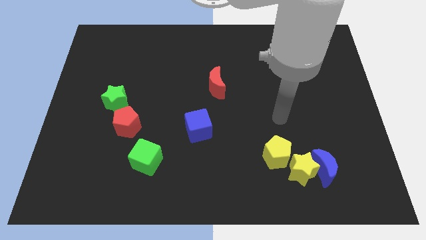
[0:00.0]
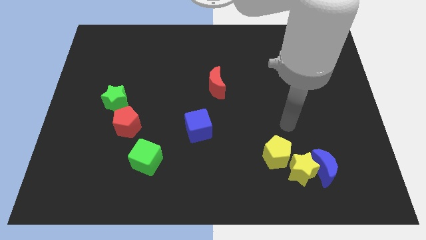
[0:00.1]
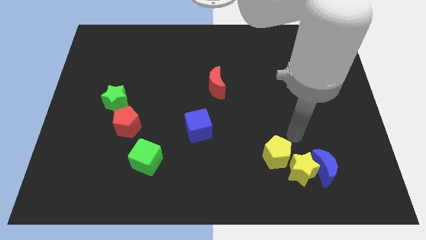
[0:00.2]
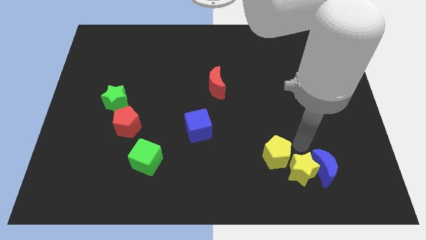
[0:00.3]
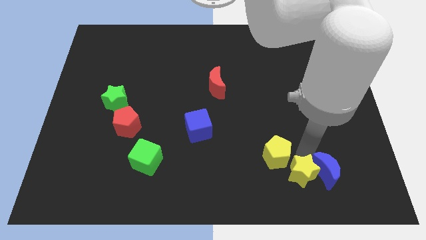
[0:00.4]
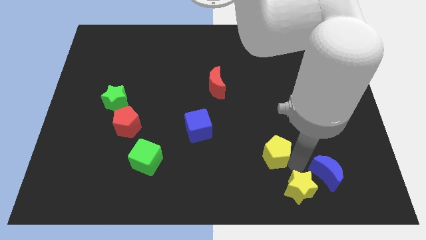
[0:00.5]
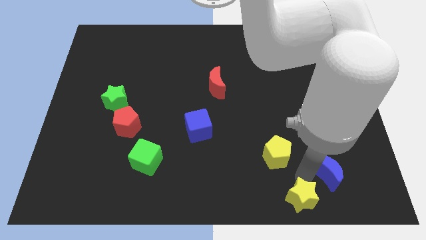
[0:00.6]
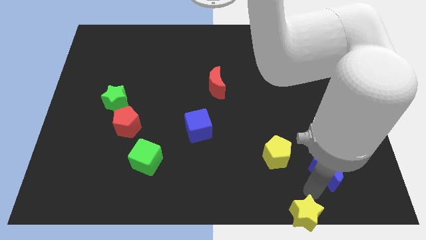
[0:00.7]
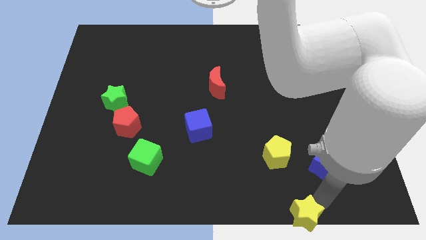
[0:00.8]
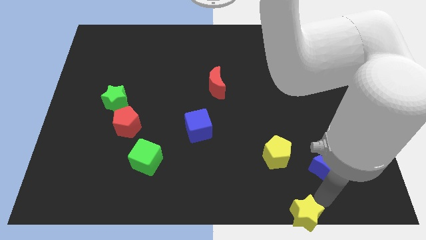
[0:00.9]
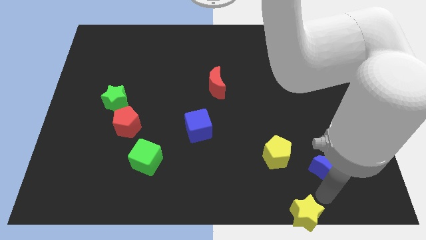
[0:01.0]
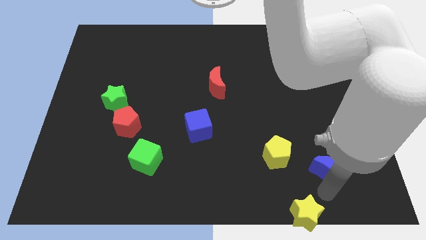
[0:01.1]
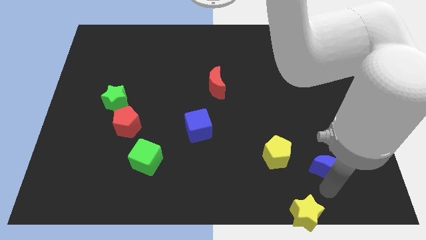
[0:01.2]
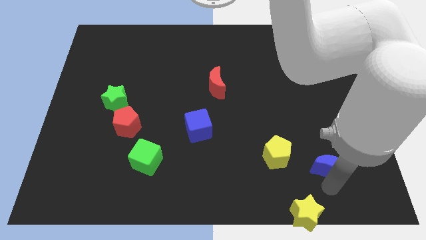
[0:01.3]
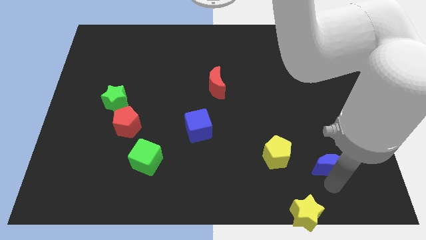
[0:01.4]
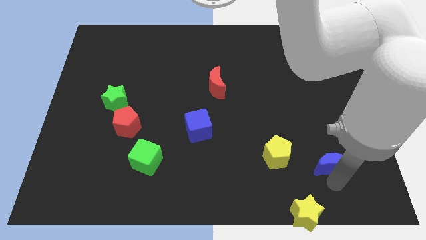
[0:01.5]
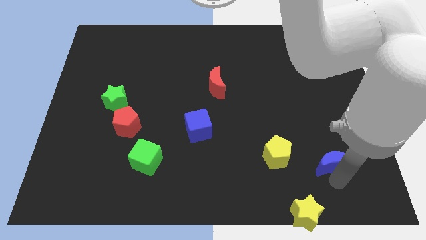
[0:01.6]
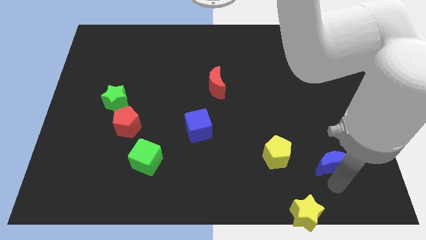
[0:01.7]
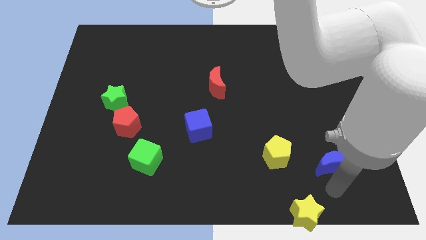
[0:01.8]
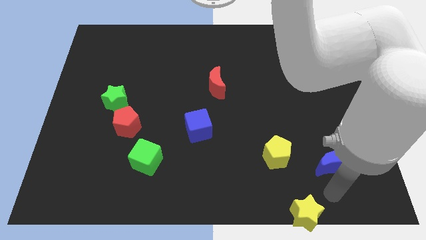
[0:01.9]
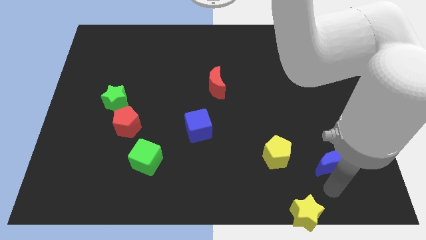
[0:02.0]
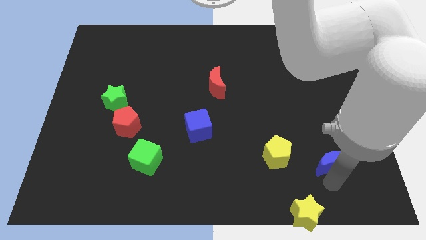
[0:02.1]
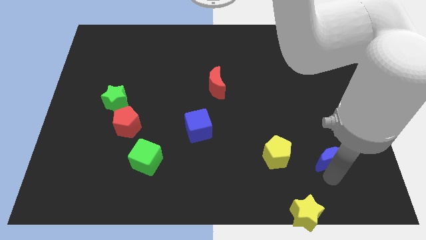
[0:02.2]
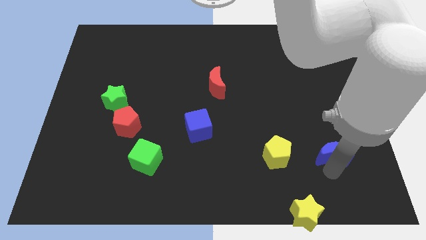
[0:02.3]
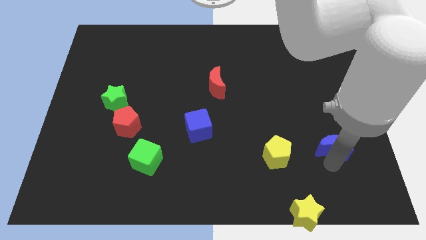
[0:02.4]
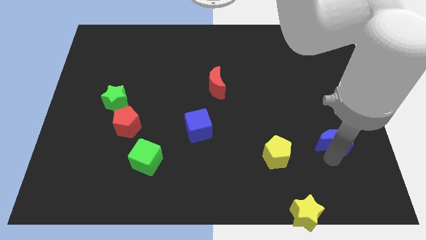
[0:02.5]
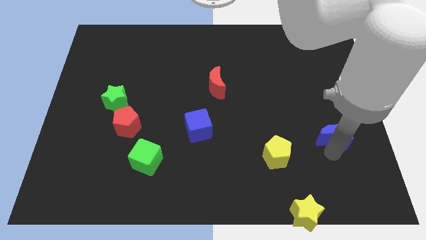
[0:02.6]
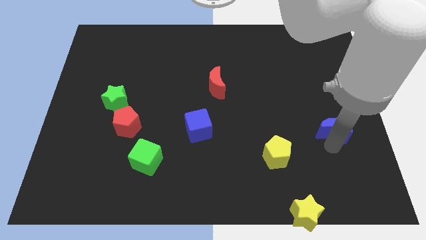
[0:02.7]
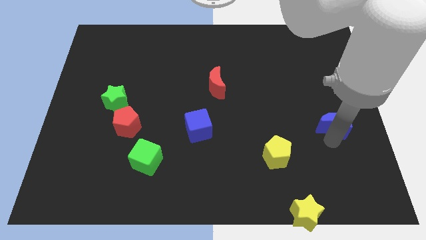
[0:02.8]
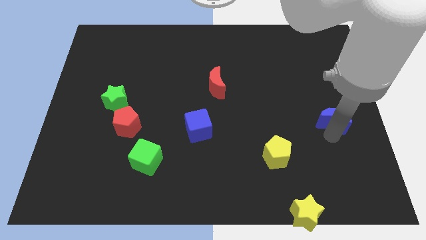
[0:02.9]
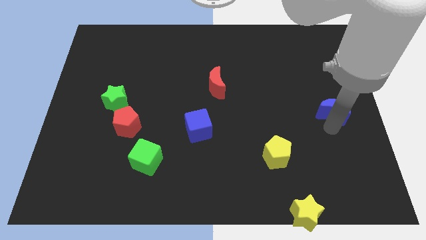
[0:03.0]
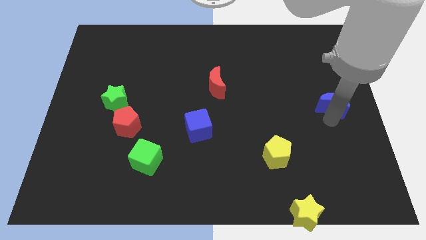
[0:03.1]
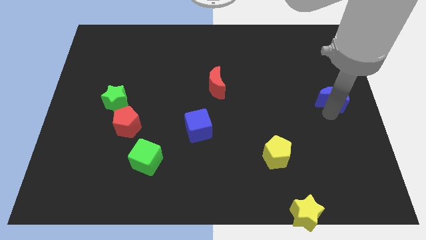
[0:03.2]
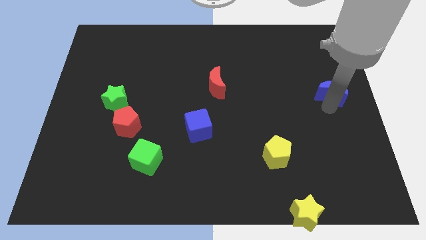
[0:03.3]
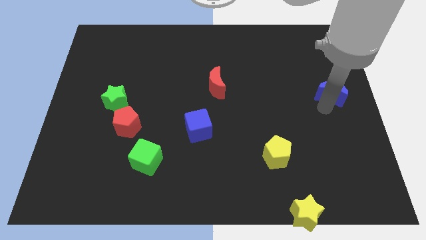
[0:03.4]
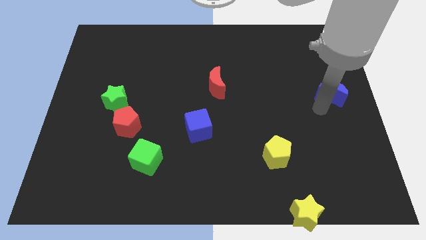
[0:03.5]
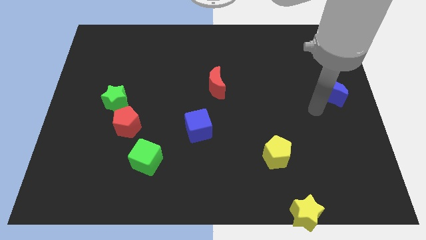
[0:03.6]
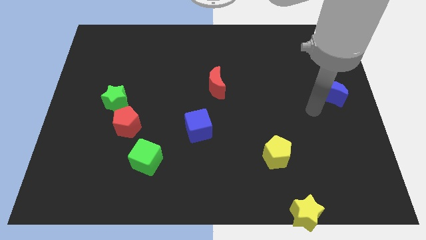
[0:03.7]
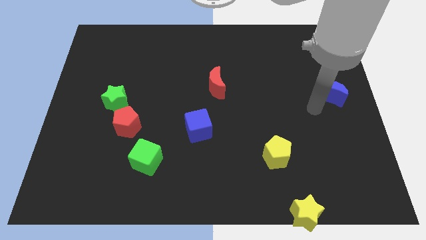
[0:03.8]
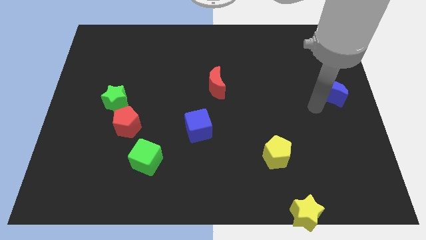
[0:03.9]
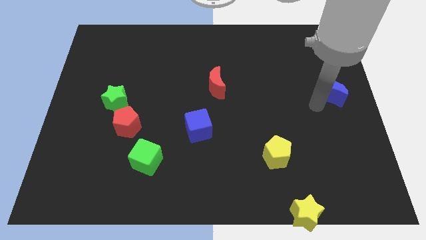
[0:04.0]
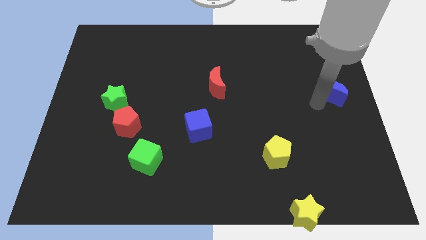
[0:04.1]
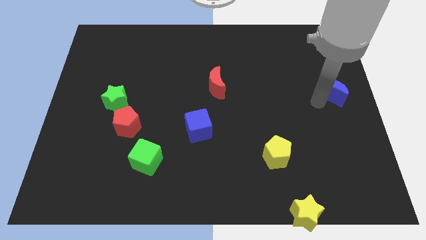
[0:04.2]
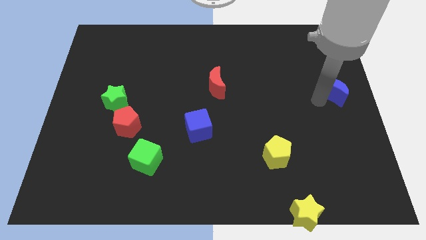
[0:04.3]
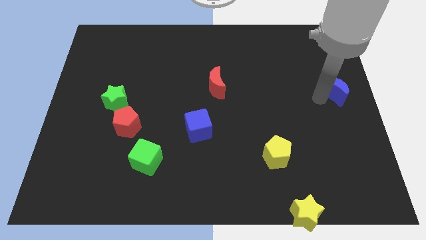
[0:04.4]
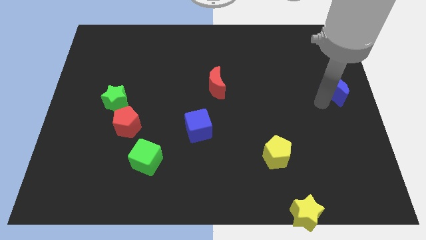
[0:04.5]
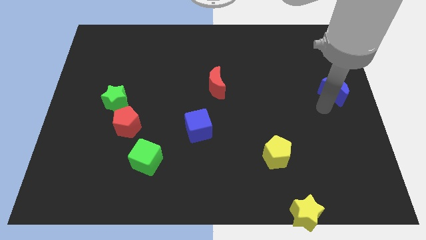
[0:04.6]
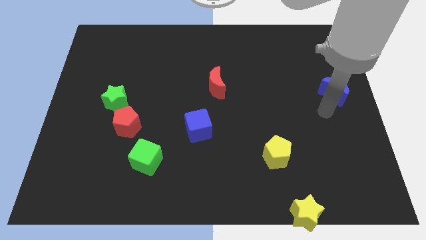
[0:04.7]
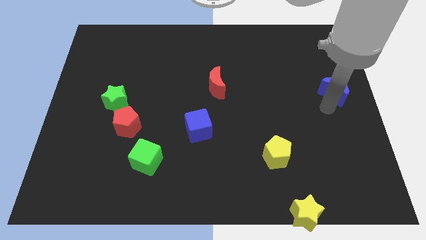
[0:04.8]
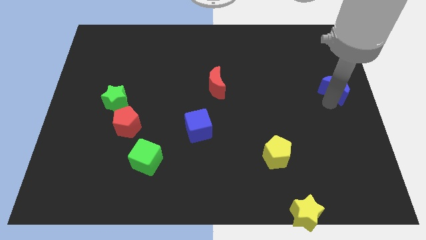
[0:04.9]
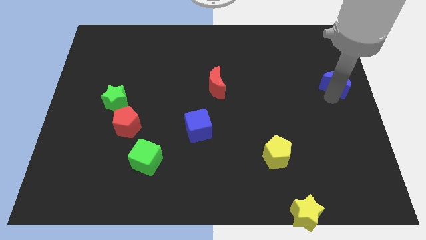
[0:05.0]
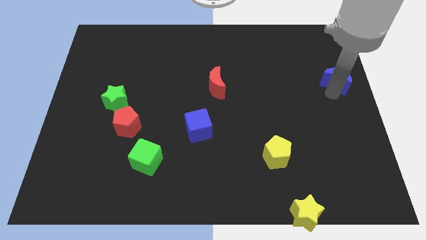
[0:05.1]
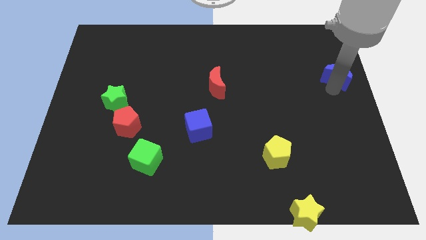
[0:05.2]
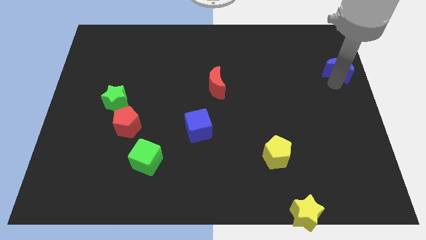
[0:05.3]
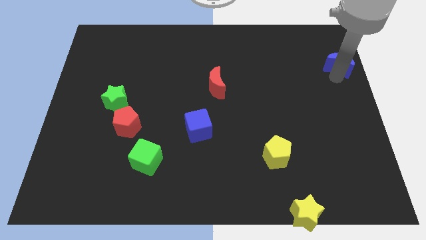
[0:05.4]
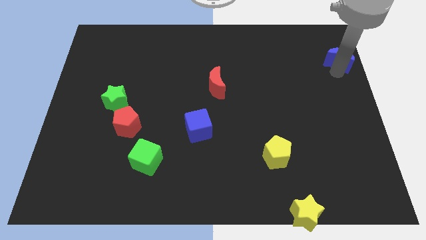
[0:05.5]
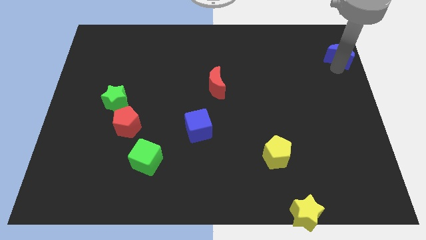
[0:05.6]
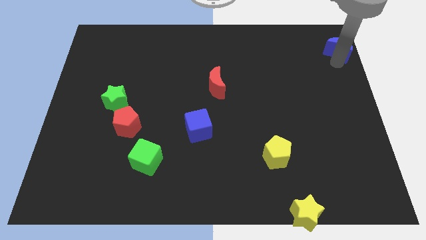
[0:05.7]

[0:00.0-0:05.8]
slide the blue moon to the top right of the board

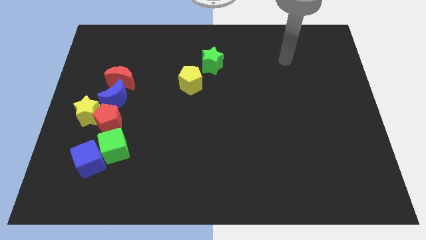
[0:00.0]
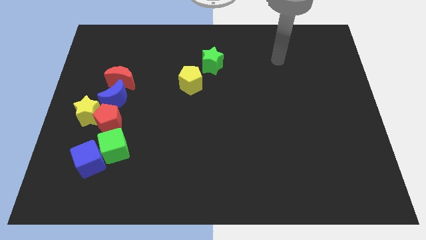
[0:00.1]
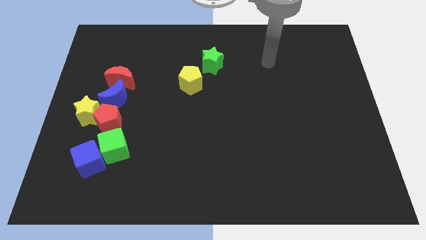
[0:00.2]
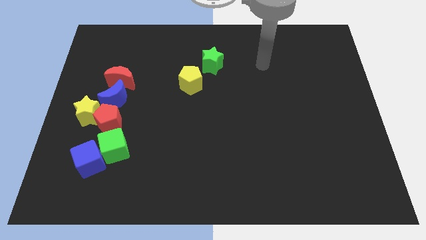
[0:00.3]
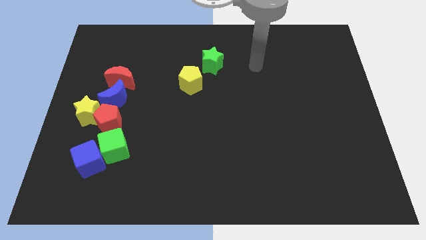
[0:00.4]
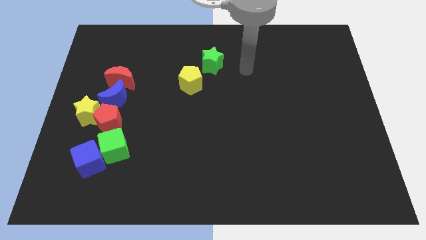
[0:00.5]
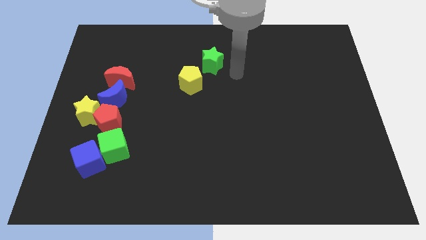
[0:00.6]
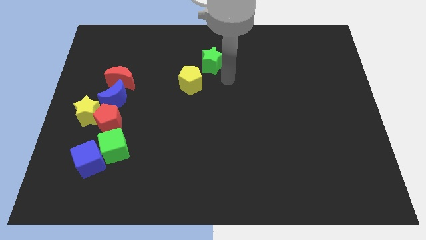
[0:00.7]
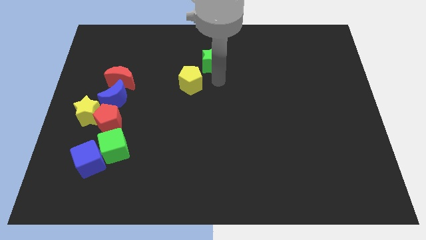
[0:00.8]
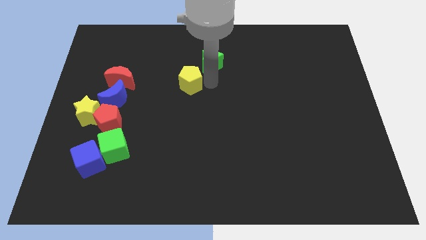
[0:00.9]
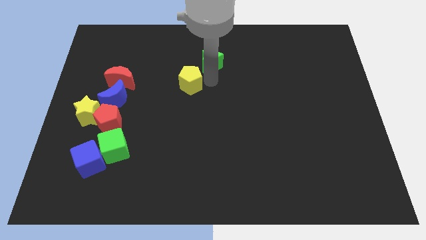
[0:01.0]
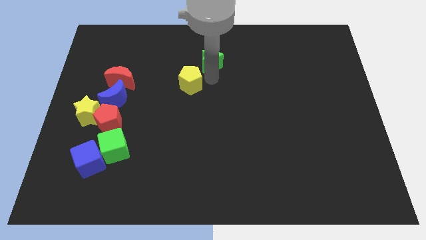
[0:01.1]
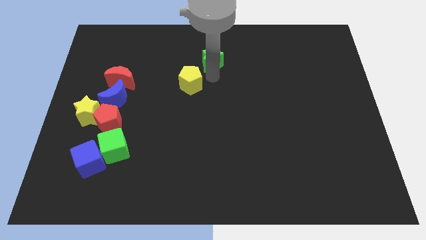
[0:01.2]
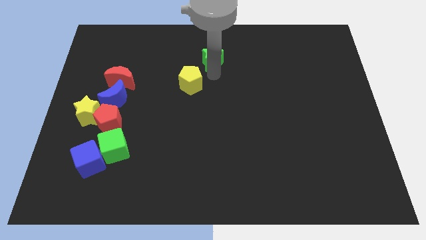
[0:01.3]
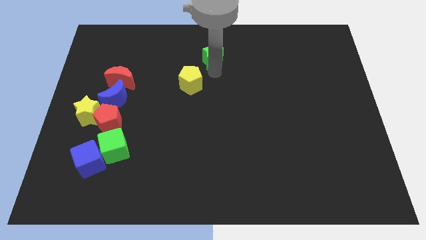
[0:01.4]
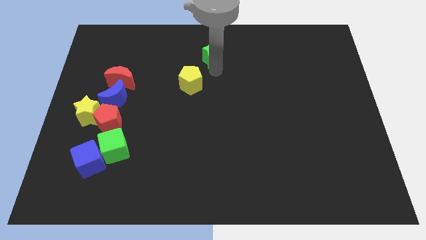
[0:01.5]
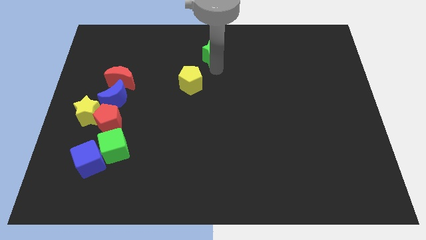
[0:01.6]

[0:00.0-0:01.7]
push the green star to the top
